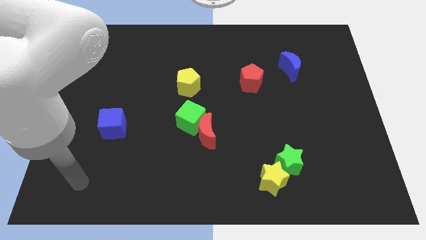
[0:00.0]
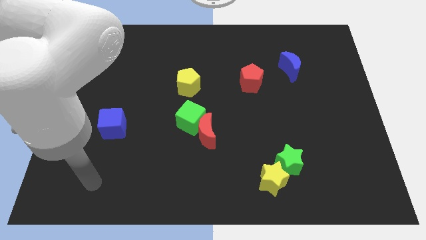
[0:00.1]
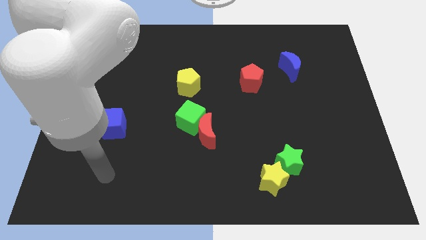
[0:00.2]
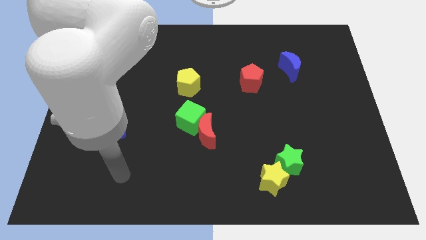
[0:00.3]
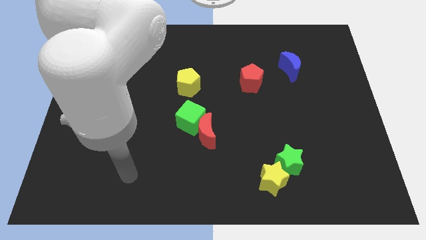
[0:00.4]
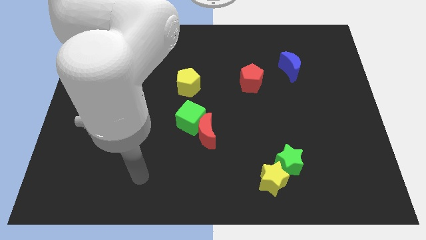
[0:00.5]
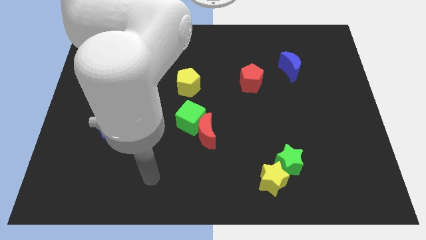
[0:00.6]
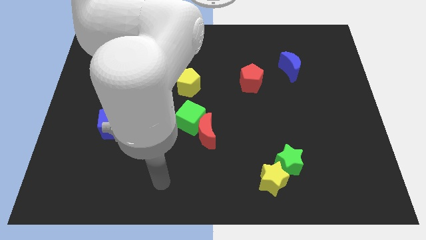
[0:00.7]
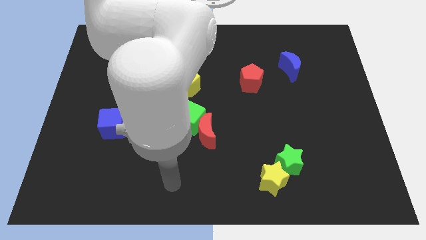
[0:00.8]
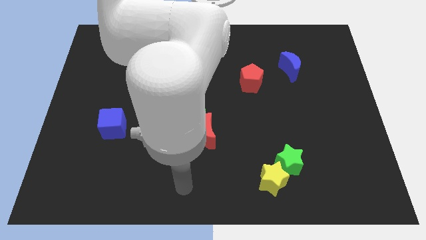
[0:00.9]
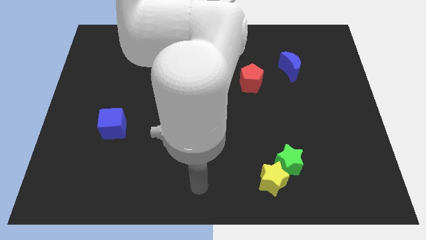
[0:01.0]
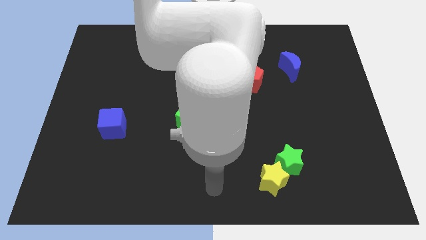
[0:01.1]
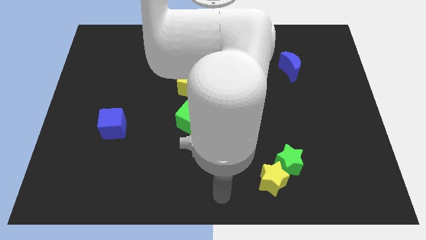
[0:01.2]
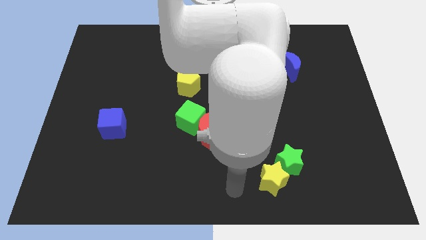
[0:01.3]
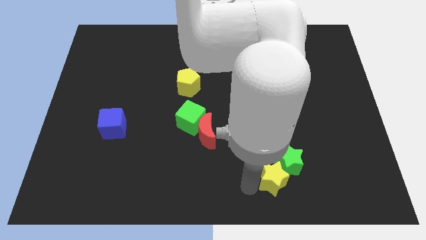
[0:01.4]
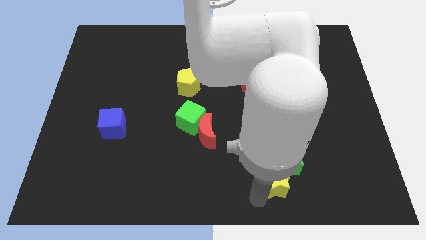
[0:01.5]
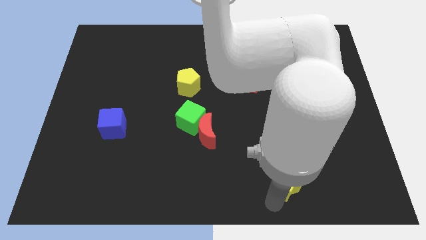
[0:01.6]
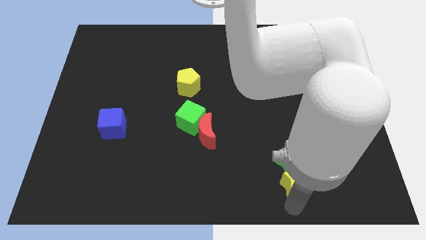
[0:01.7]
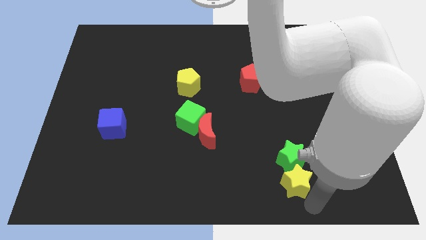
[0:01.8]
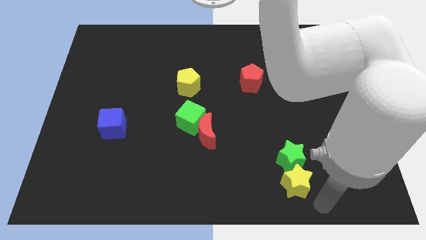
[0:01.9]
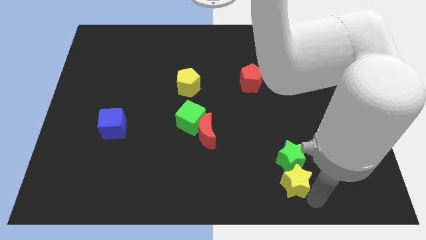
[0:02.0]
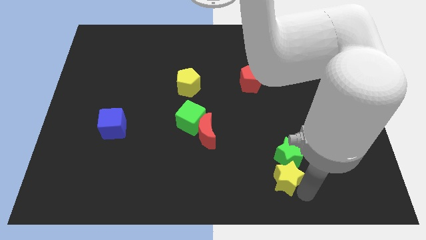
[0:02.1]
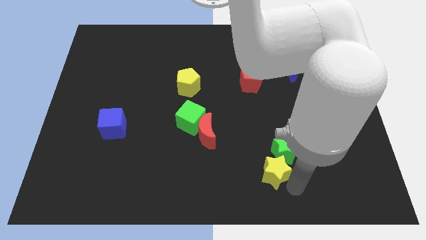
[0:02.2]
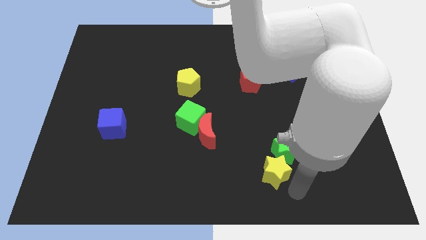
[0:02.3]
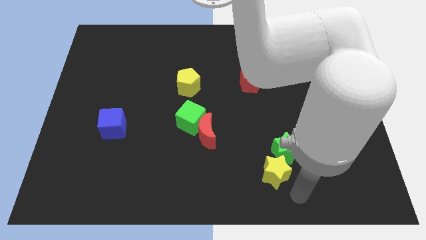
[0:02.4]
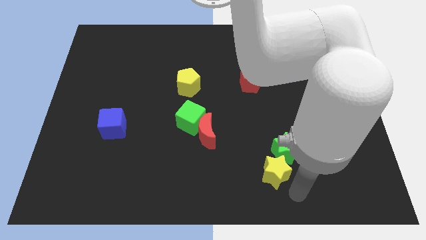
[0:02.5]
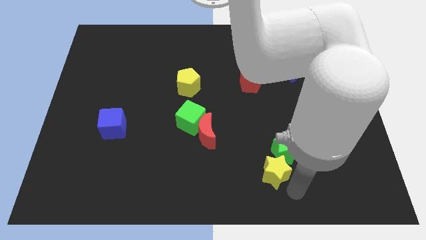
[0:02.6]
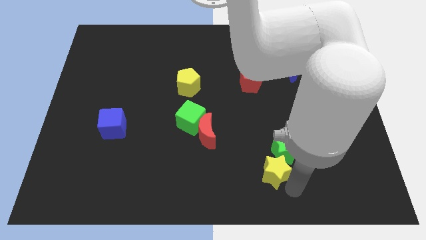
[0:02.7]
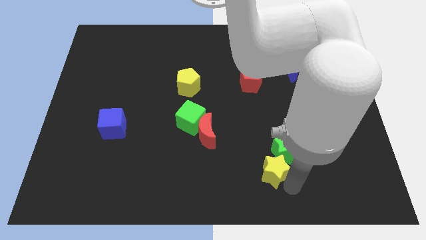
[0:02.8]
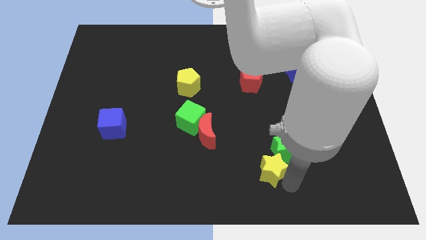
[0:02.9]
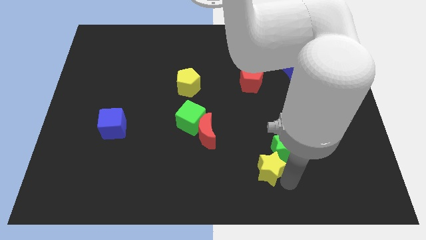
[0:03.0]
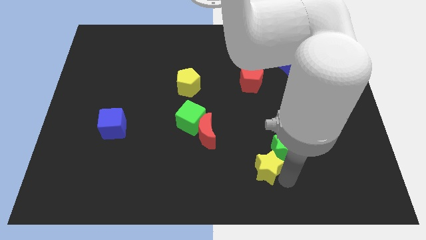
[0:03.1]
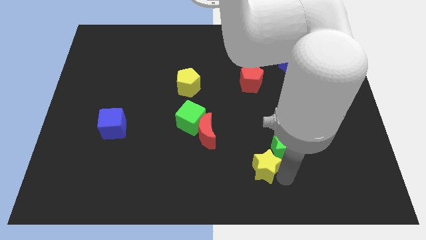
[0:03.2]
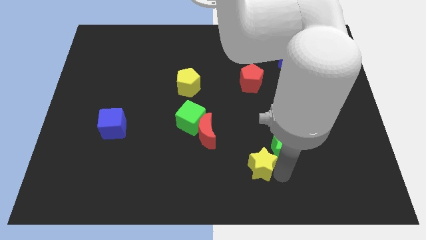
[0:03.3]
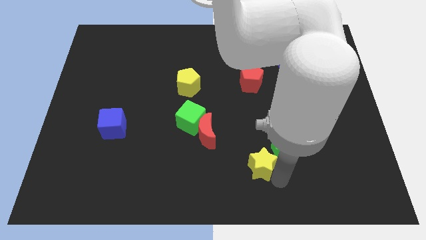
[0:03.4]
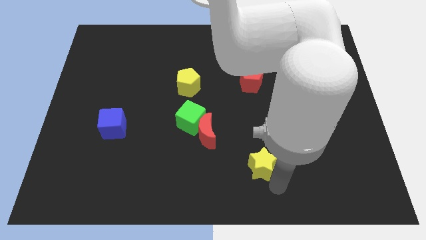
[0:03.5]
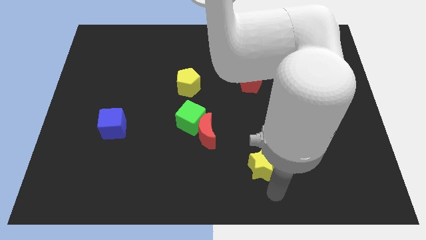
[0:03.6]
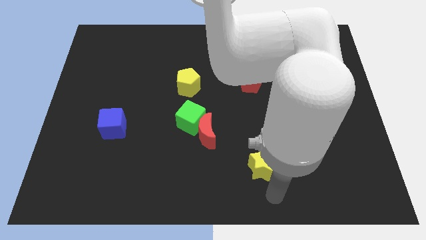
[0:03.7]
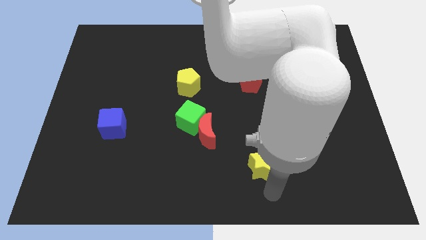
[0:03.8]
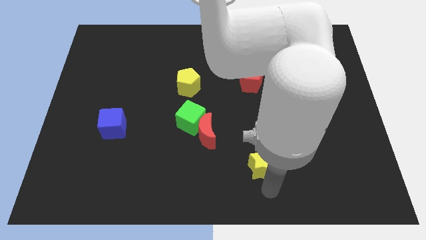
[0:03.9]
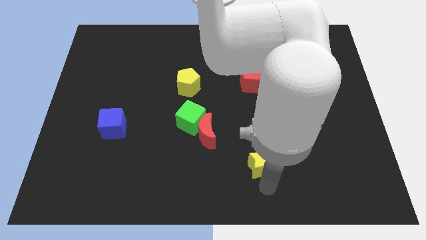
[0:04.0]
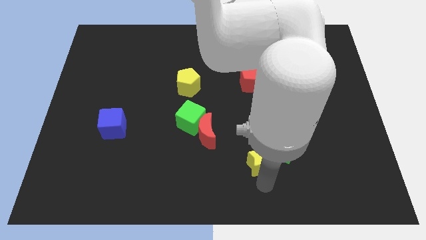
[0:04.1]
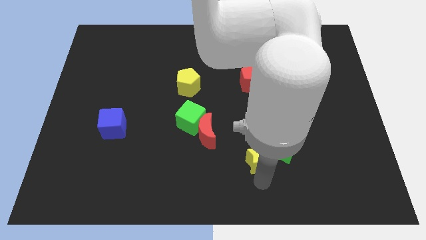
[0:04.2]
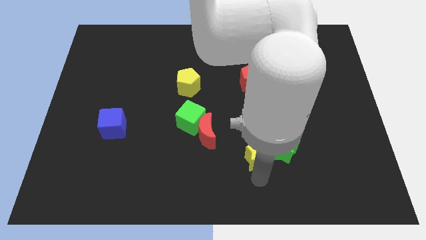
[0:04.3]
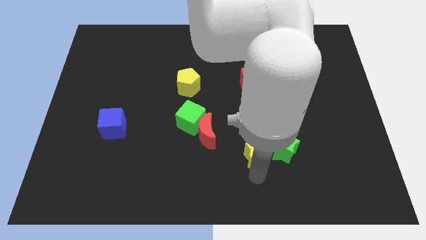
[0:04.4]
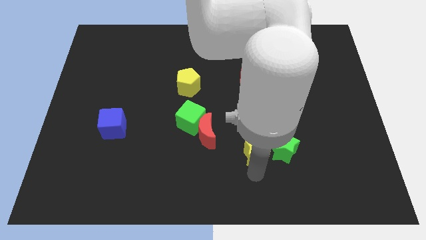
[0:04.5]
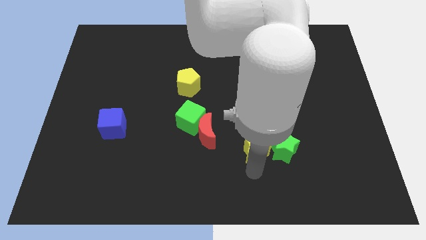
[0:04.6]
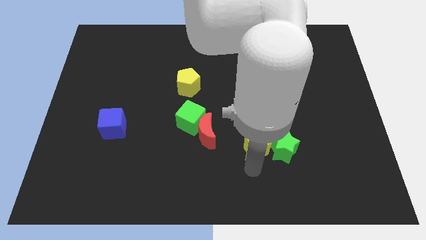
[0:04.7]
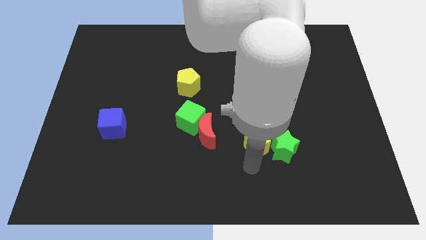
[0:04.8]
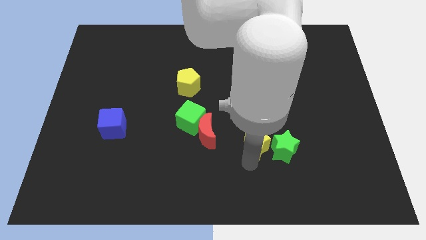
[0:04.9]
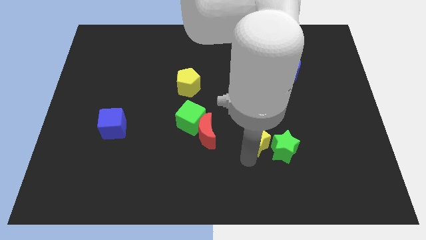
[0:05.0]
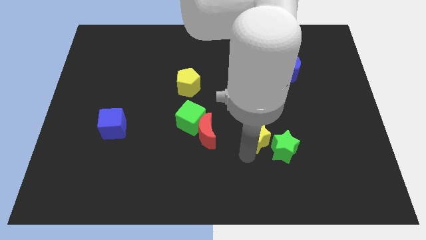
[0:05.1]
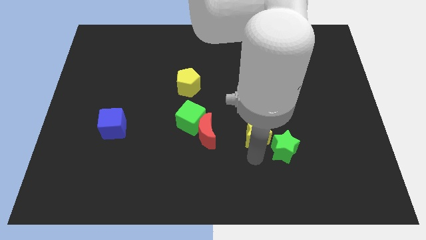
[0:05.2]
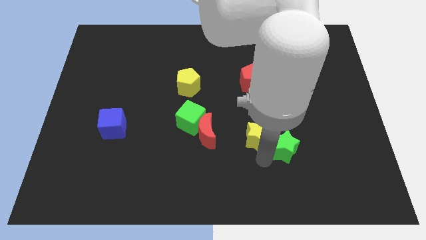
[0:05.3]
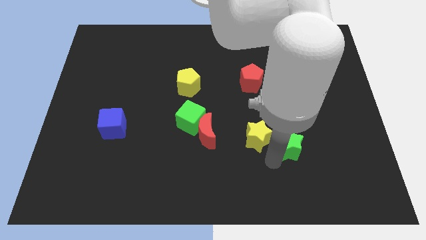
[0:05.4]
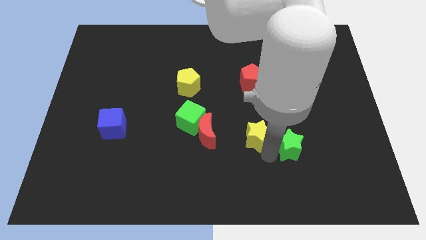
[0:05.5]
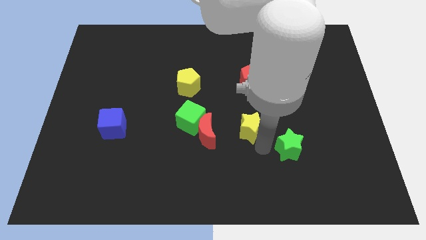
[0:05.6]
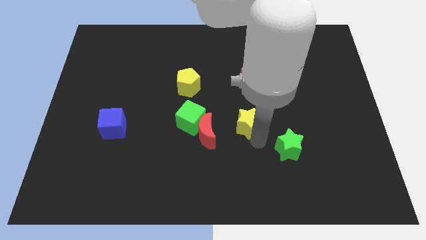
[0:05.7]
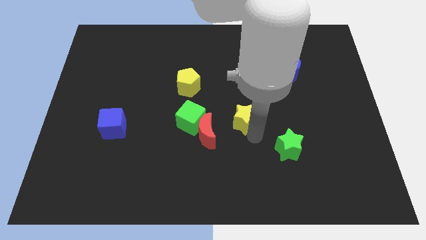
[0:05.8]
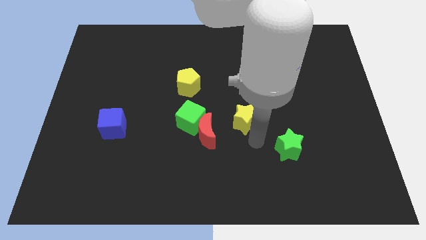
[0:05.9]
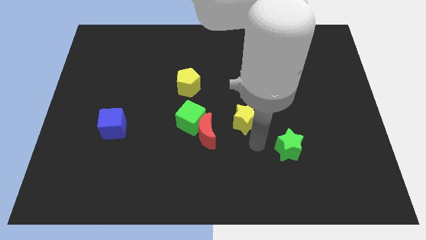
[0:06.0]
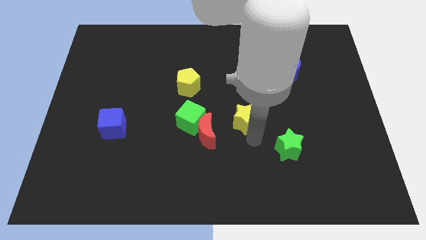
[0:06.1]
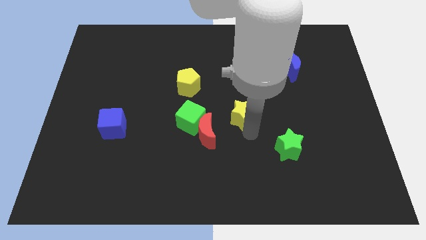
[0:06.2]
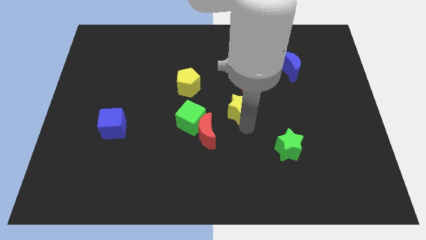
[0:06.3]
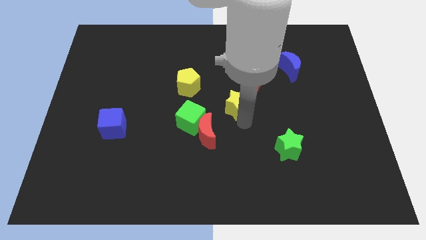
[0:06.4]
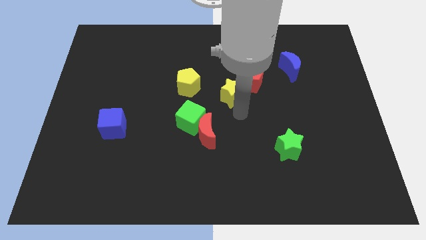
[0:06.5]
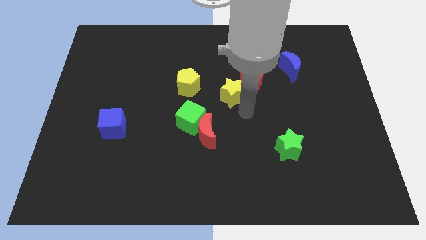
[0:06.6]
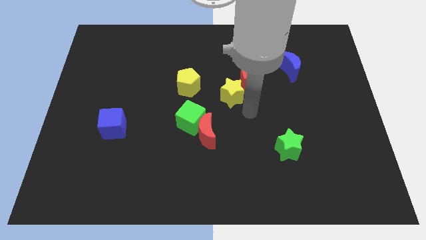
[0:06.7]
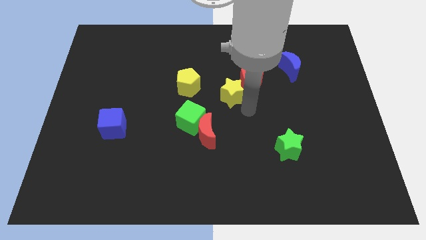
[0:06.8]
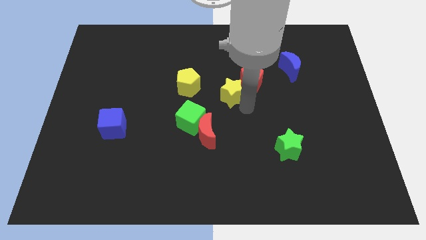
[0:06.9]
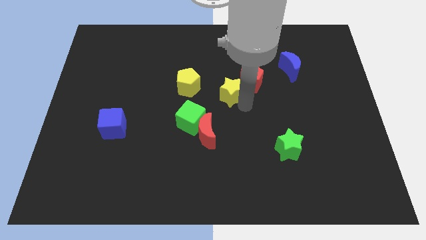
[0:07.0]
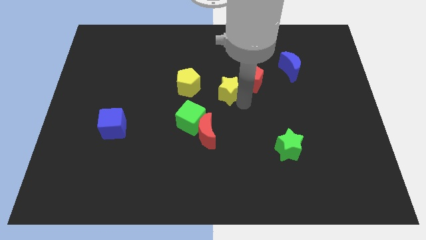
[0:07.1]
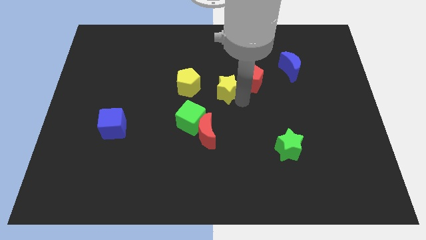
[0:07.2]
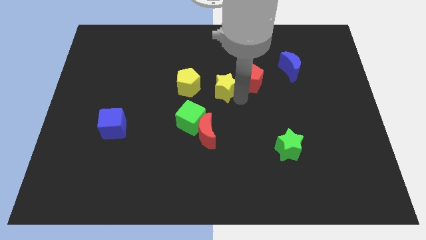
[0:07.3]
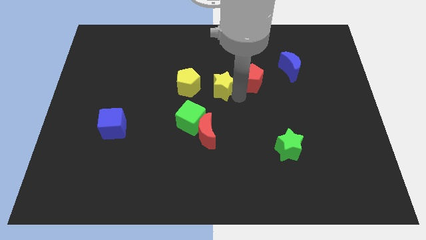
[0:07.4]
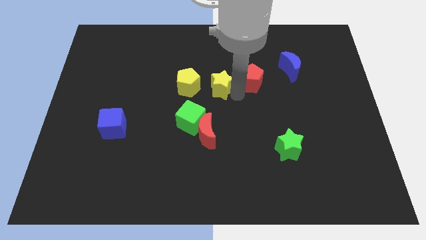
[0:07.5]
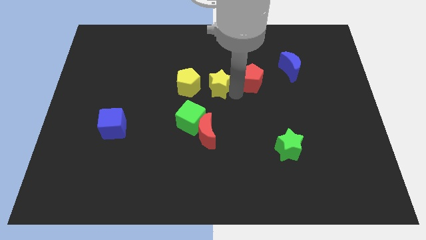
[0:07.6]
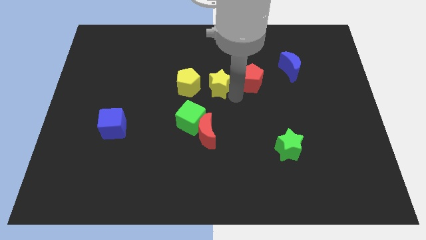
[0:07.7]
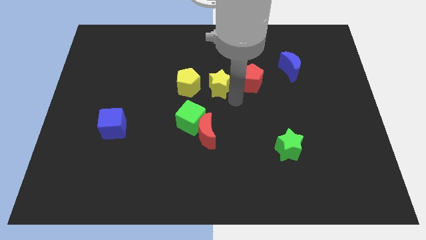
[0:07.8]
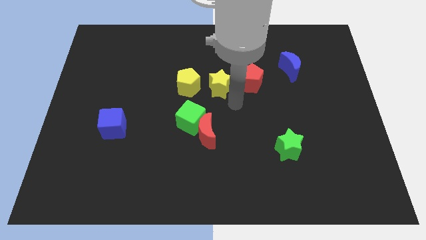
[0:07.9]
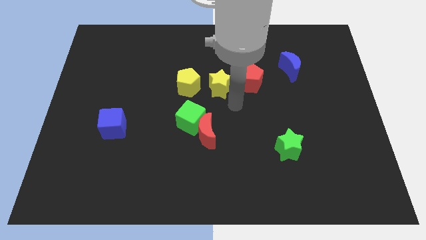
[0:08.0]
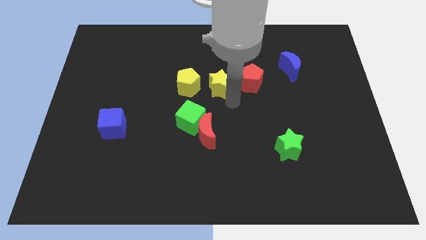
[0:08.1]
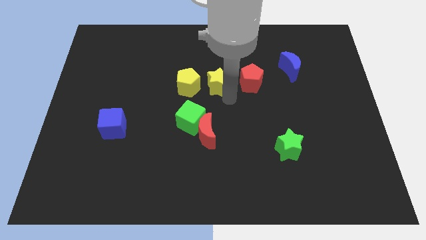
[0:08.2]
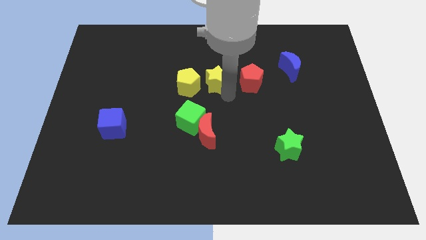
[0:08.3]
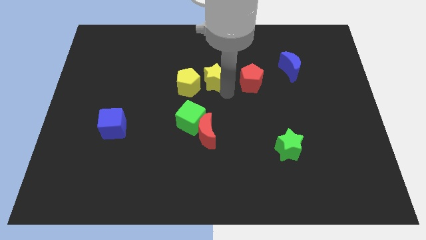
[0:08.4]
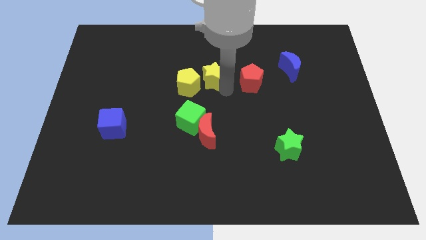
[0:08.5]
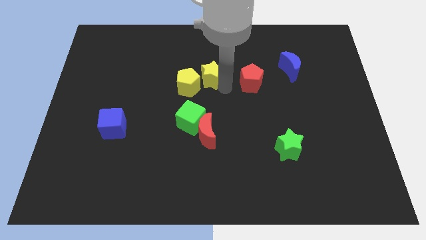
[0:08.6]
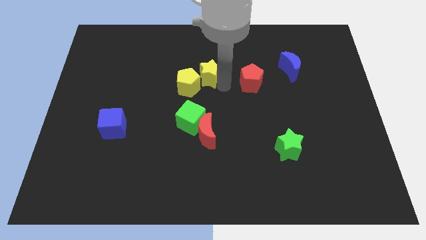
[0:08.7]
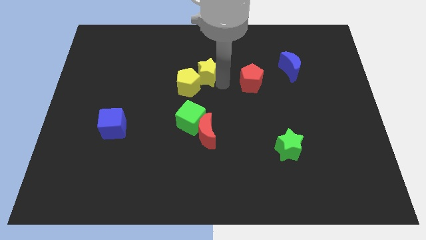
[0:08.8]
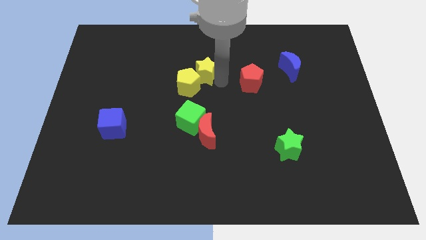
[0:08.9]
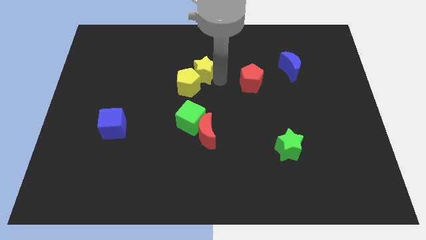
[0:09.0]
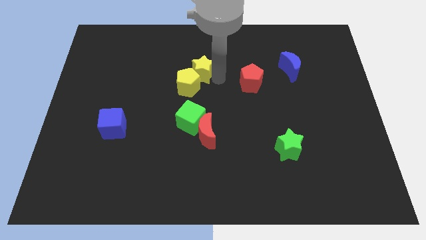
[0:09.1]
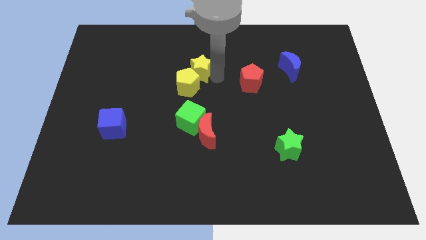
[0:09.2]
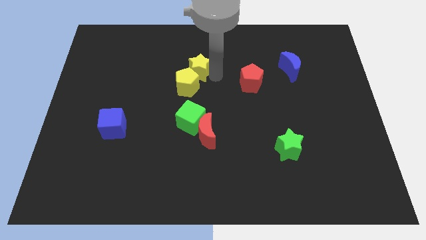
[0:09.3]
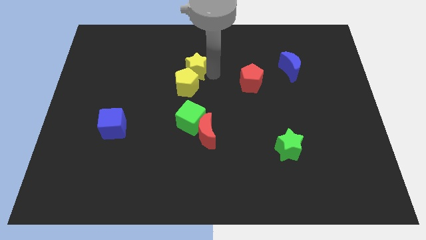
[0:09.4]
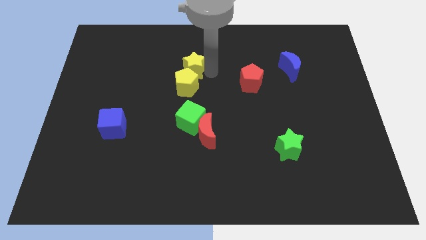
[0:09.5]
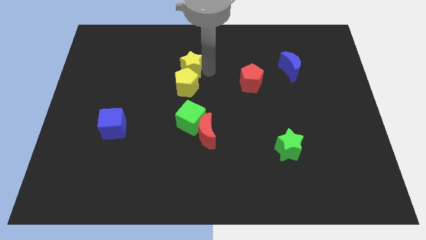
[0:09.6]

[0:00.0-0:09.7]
move the yellow star to the top left of the yellow pentagon
